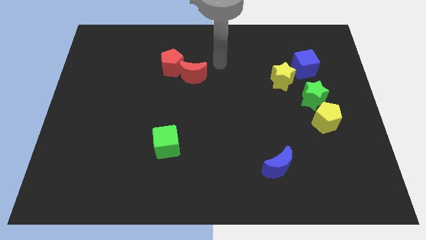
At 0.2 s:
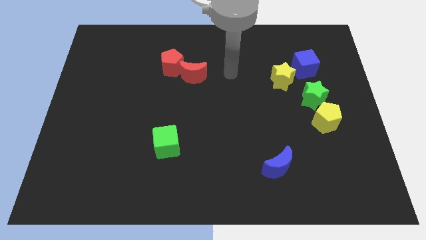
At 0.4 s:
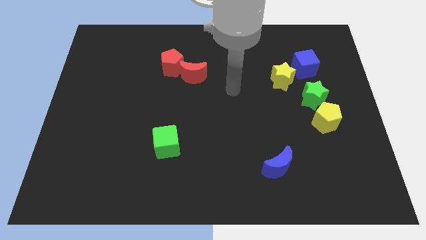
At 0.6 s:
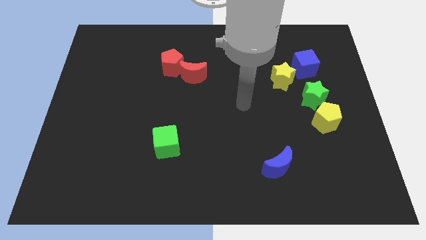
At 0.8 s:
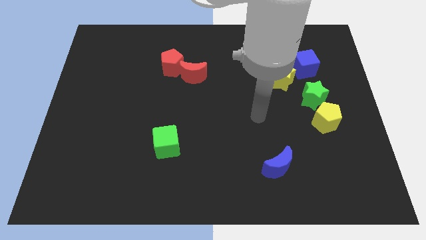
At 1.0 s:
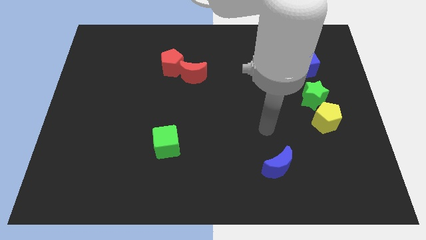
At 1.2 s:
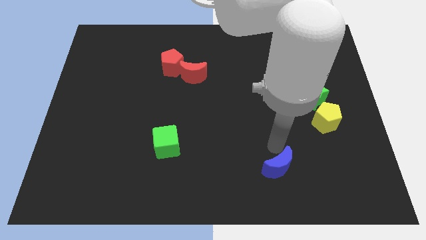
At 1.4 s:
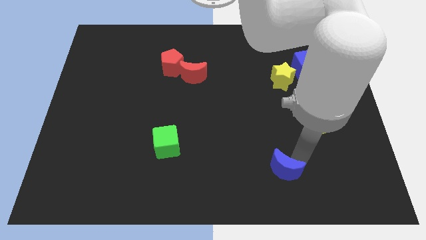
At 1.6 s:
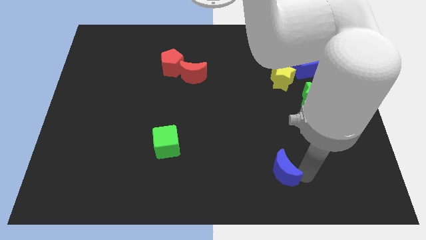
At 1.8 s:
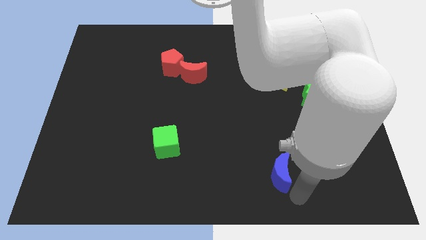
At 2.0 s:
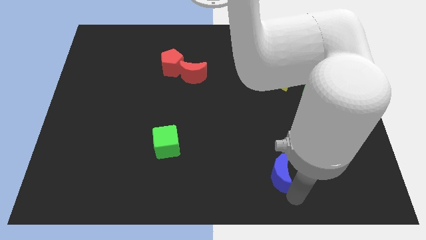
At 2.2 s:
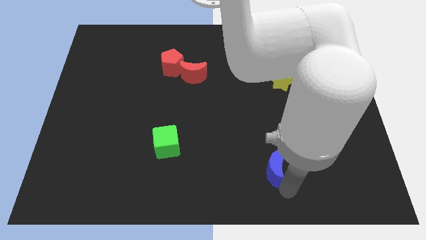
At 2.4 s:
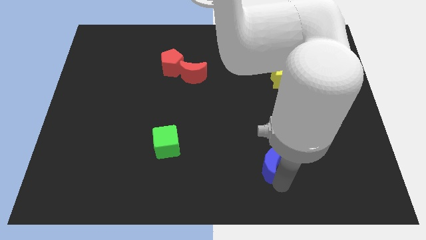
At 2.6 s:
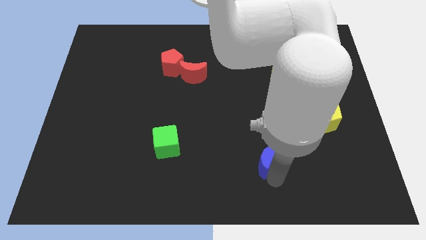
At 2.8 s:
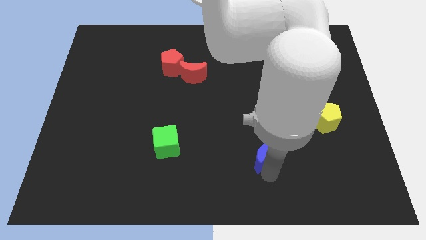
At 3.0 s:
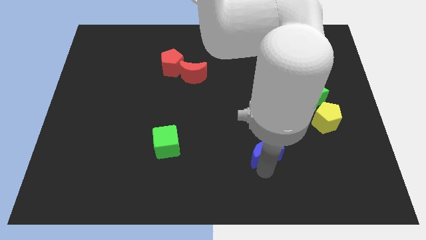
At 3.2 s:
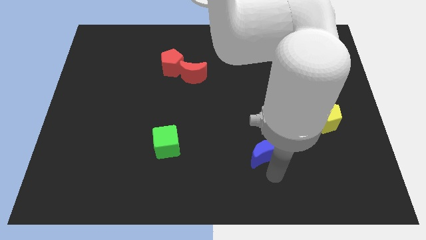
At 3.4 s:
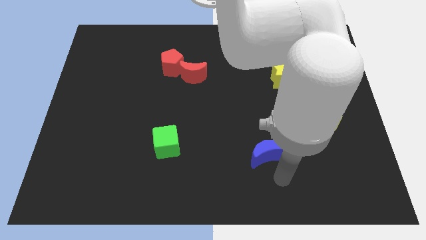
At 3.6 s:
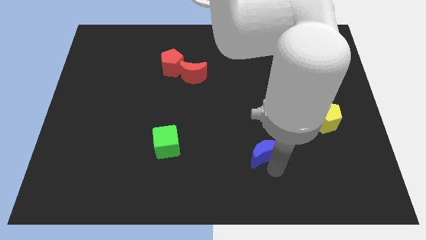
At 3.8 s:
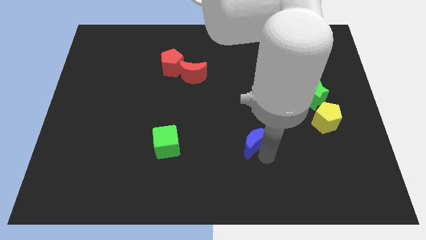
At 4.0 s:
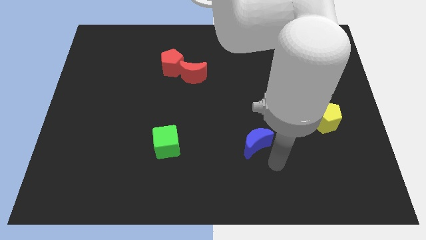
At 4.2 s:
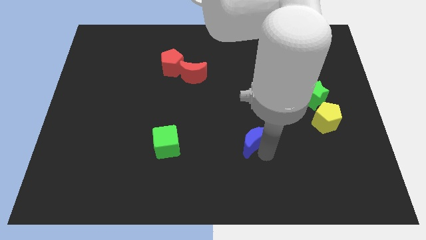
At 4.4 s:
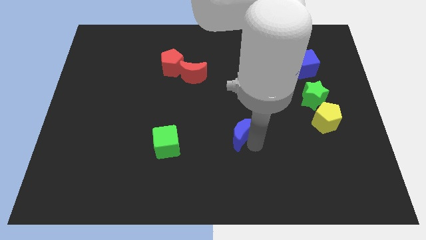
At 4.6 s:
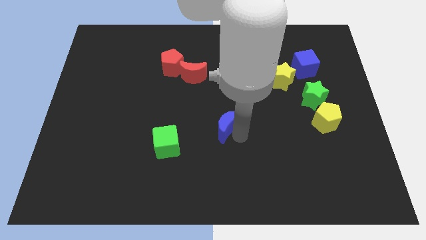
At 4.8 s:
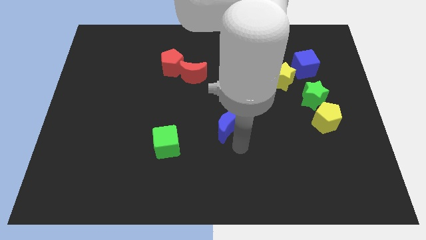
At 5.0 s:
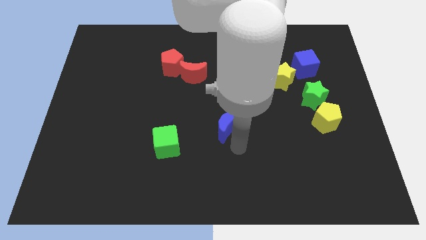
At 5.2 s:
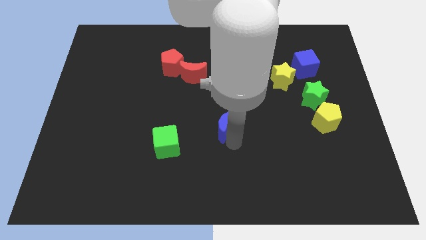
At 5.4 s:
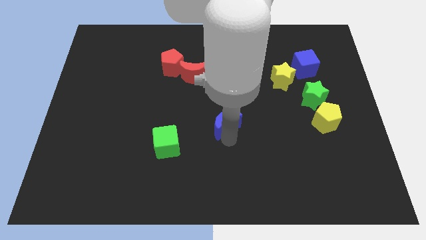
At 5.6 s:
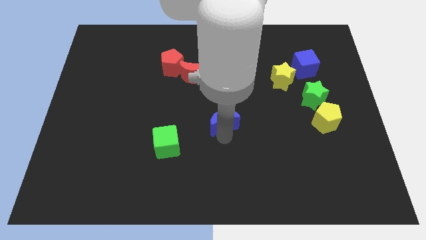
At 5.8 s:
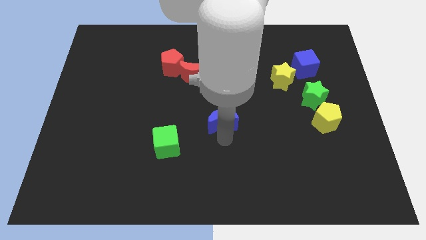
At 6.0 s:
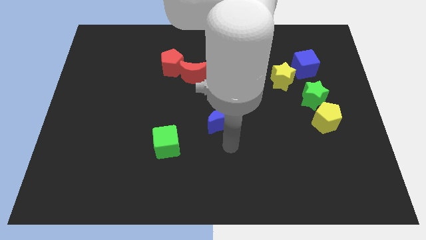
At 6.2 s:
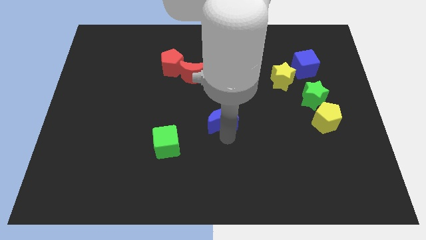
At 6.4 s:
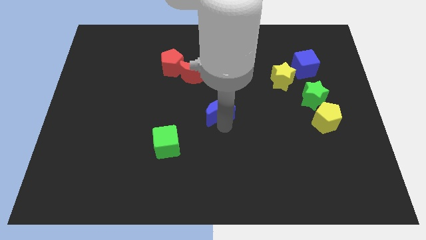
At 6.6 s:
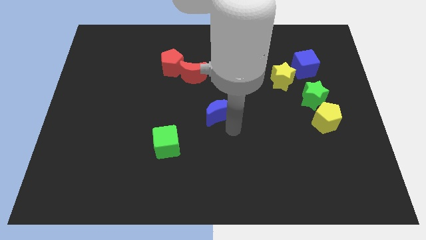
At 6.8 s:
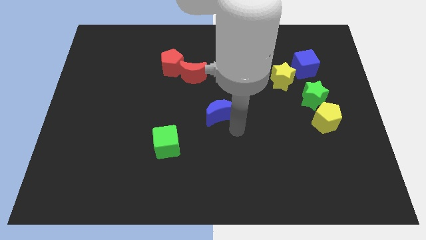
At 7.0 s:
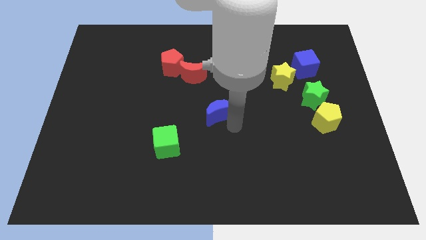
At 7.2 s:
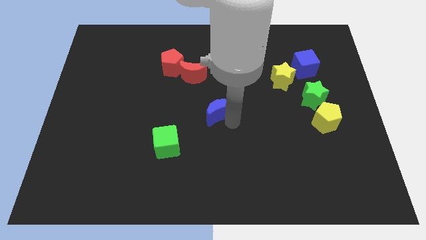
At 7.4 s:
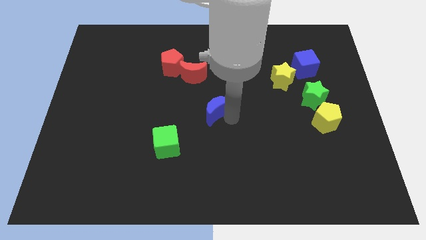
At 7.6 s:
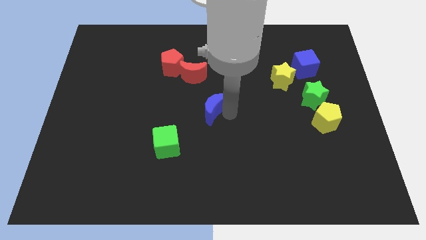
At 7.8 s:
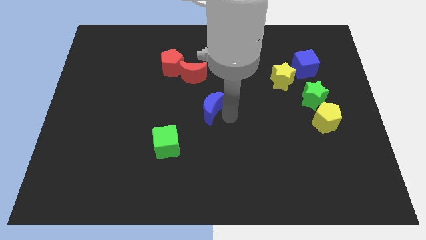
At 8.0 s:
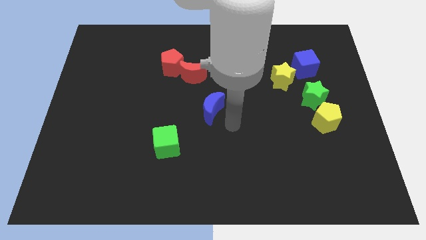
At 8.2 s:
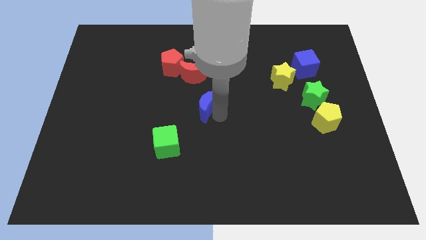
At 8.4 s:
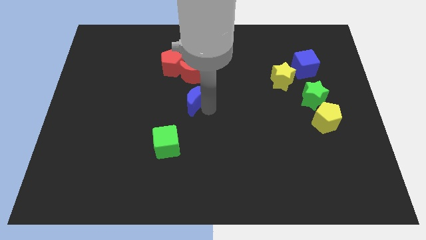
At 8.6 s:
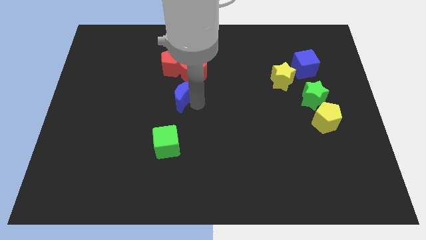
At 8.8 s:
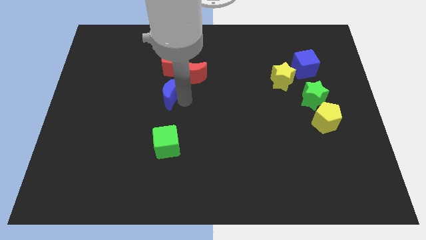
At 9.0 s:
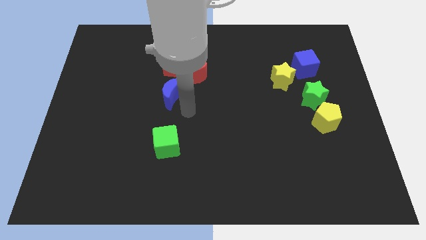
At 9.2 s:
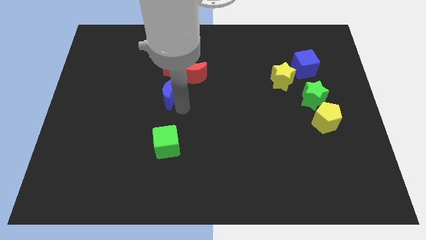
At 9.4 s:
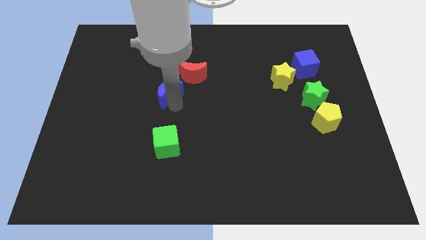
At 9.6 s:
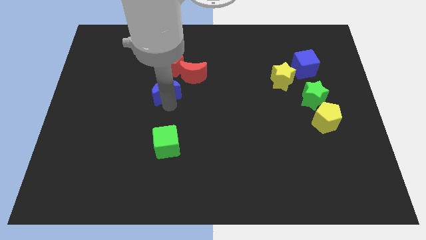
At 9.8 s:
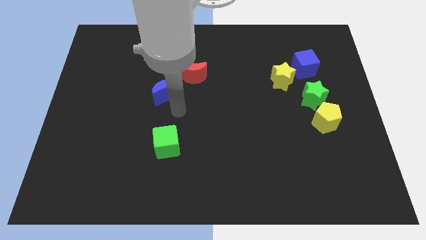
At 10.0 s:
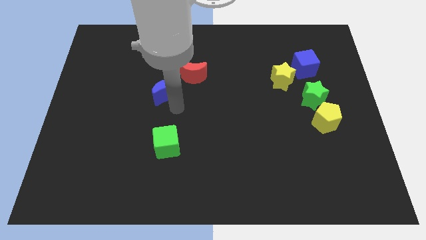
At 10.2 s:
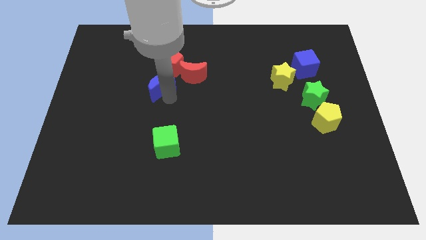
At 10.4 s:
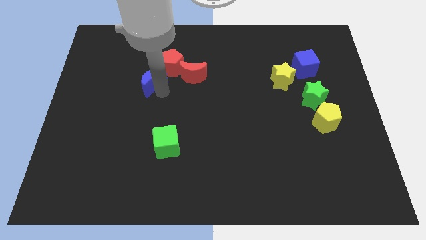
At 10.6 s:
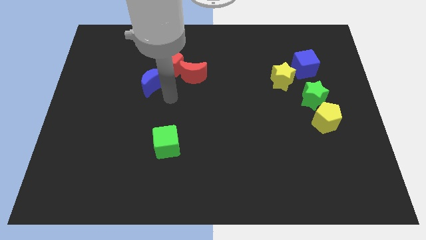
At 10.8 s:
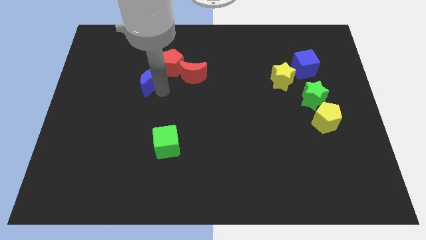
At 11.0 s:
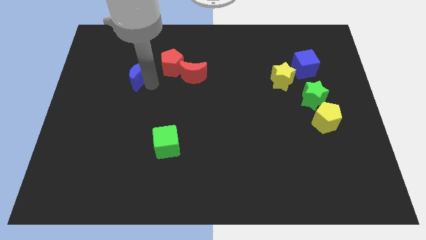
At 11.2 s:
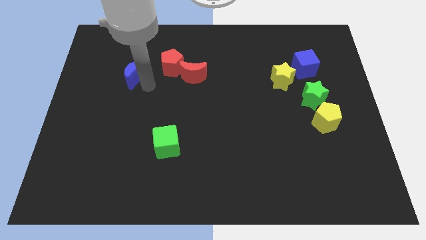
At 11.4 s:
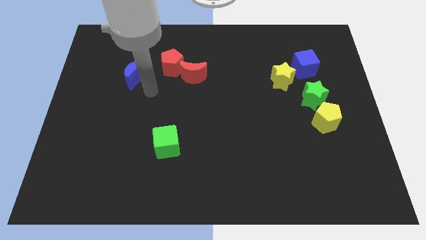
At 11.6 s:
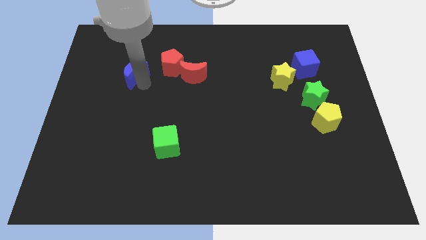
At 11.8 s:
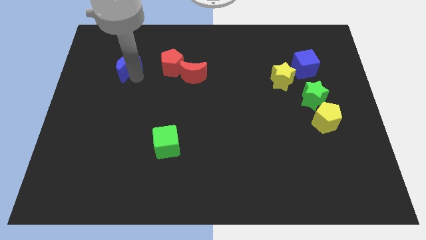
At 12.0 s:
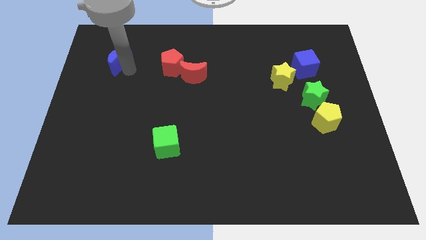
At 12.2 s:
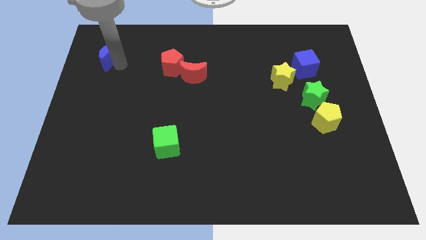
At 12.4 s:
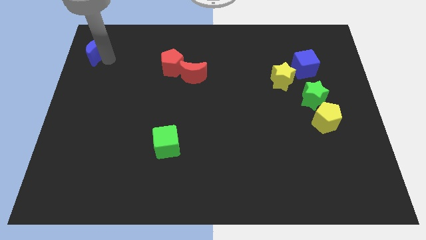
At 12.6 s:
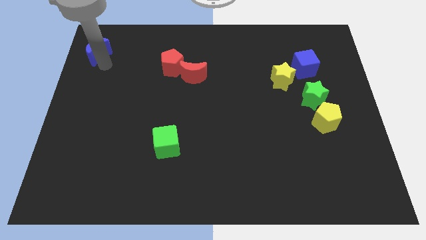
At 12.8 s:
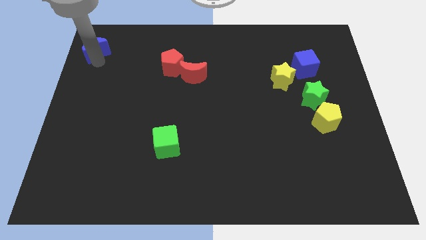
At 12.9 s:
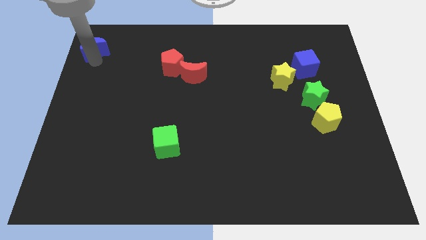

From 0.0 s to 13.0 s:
slide the blue moon to the upper left corner

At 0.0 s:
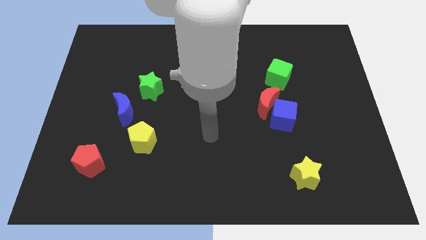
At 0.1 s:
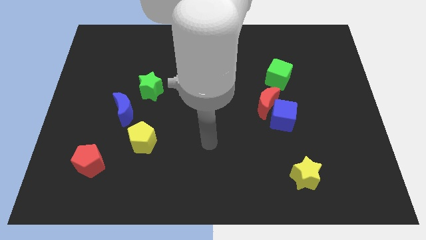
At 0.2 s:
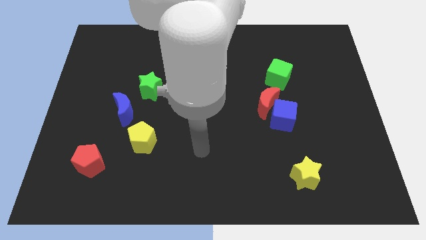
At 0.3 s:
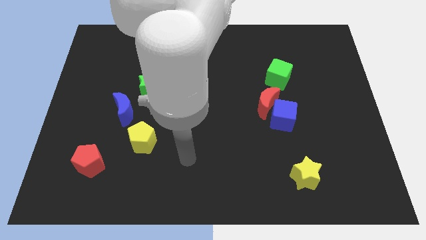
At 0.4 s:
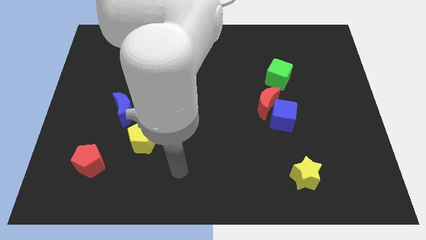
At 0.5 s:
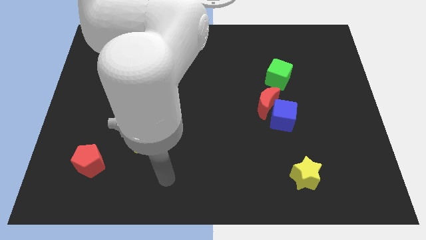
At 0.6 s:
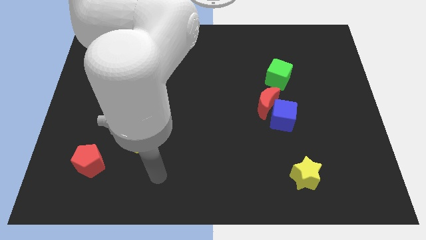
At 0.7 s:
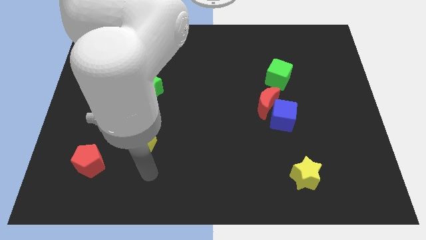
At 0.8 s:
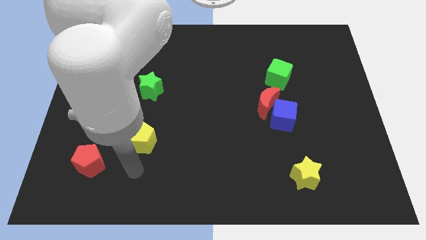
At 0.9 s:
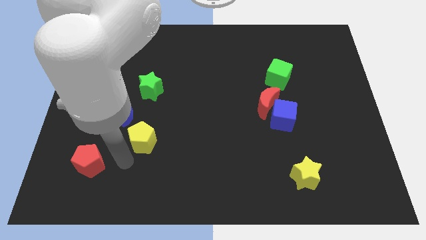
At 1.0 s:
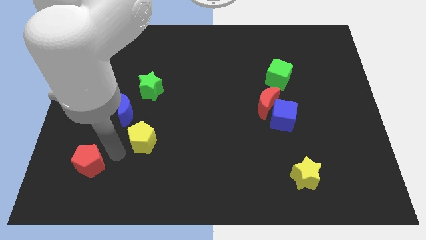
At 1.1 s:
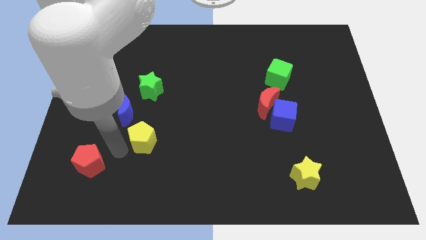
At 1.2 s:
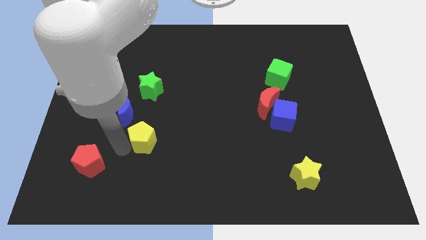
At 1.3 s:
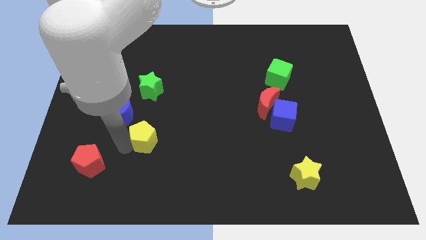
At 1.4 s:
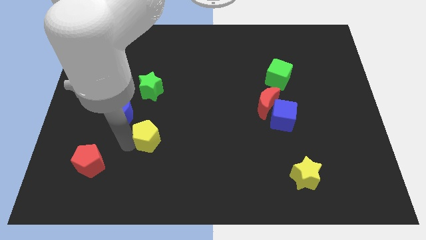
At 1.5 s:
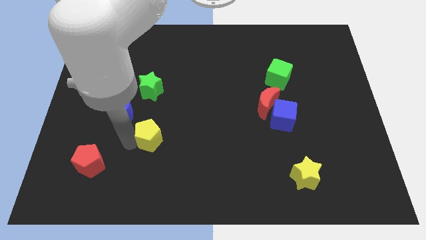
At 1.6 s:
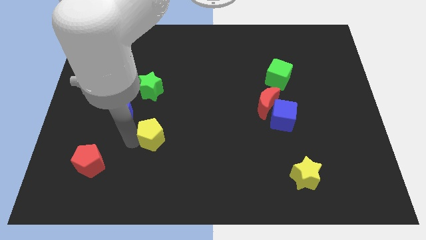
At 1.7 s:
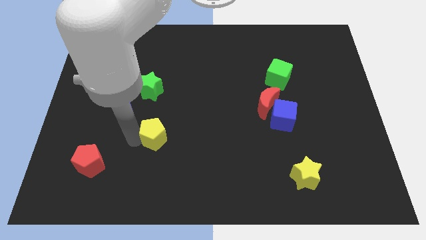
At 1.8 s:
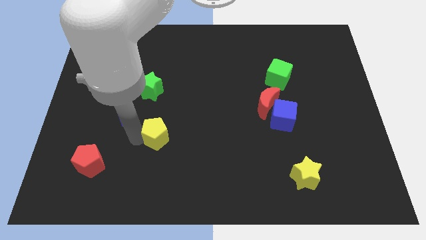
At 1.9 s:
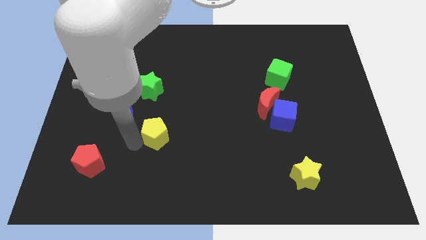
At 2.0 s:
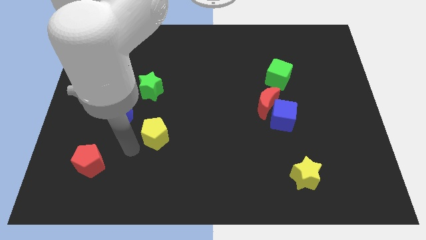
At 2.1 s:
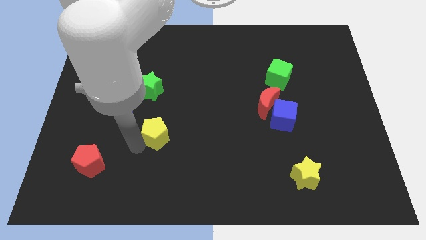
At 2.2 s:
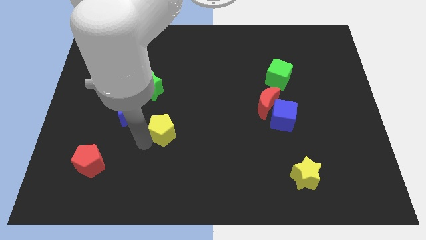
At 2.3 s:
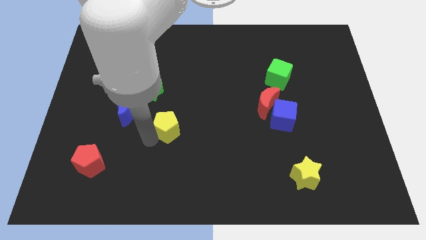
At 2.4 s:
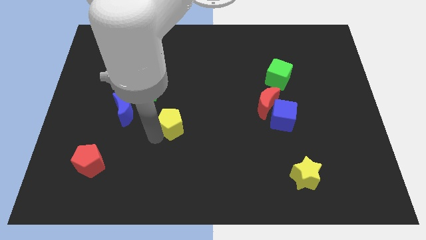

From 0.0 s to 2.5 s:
slide the yellow pentagon to the center
